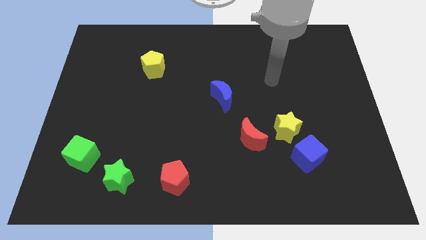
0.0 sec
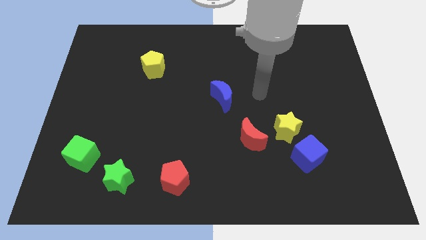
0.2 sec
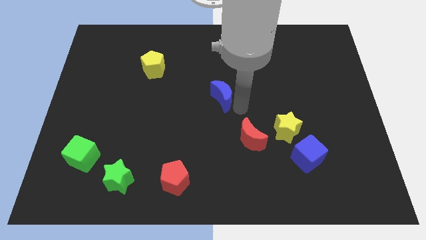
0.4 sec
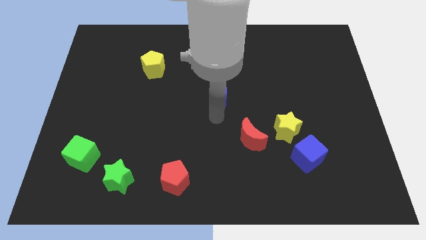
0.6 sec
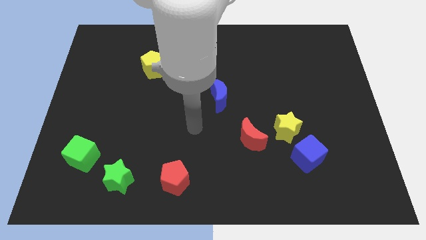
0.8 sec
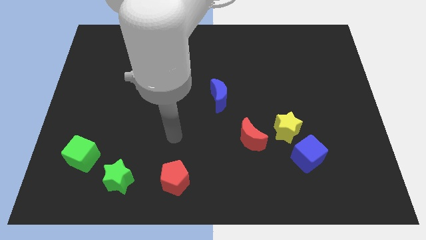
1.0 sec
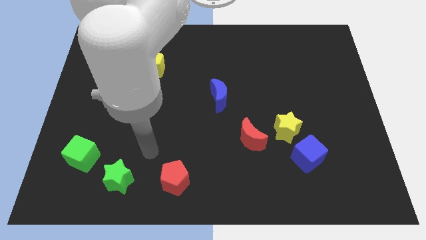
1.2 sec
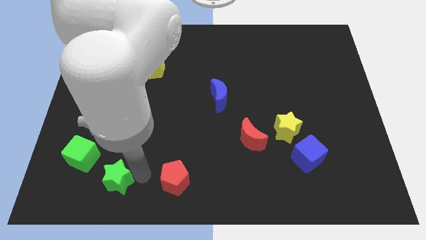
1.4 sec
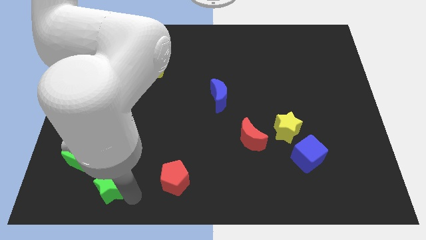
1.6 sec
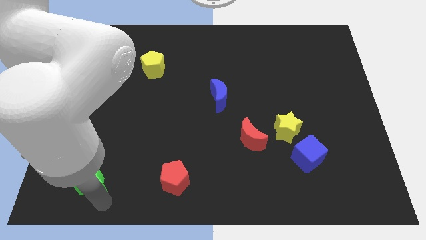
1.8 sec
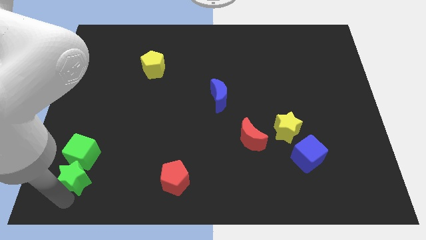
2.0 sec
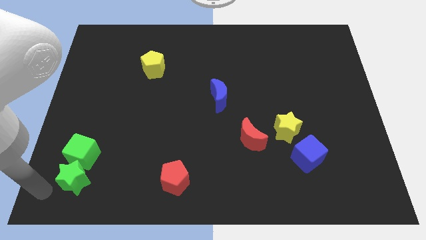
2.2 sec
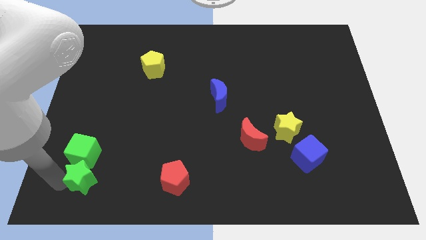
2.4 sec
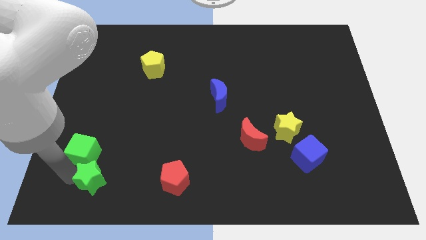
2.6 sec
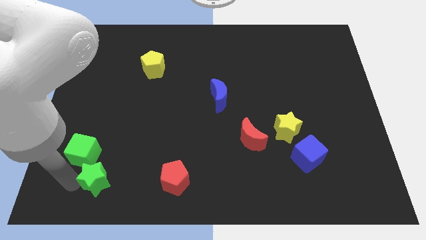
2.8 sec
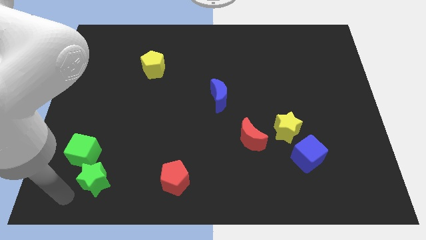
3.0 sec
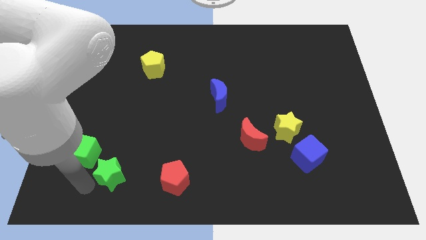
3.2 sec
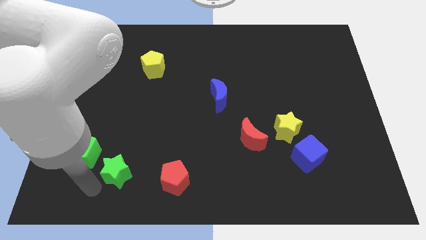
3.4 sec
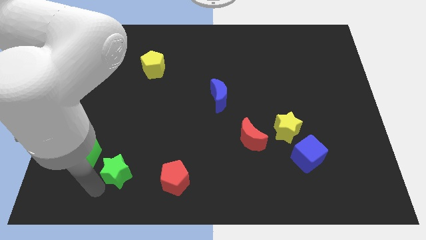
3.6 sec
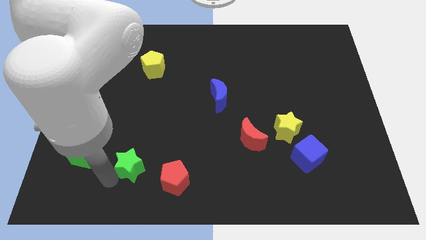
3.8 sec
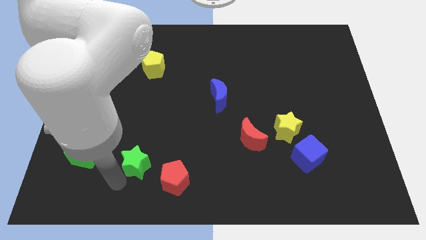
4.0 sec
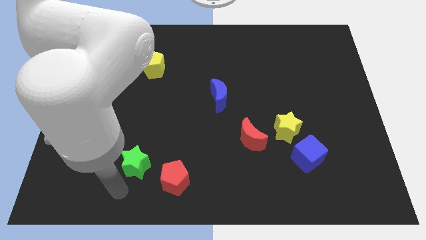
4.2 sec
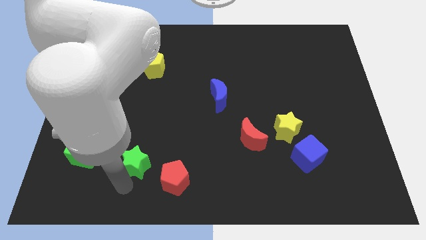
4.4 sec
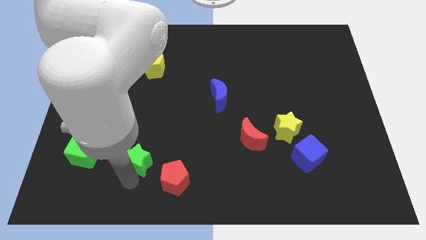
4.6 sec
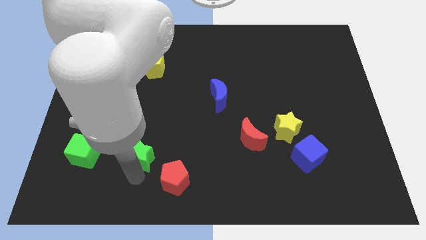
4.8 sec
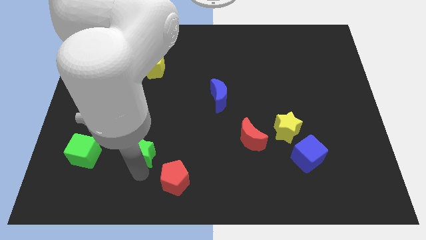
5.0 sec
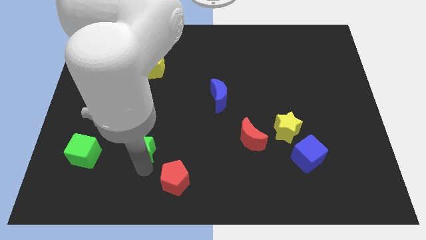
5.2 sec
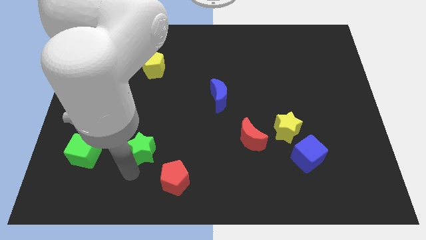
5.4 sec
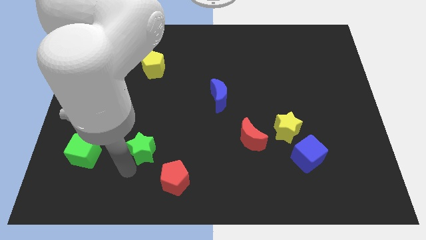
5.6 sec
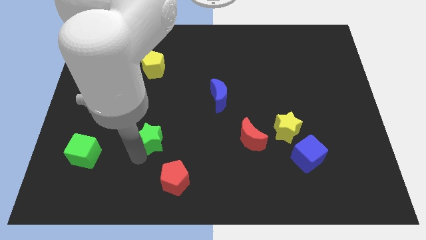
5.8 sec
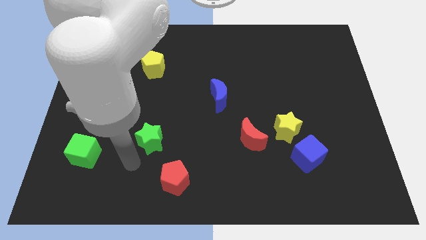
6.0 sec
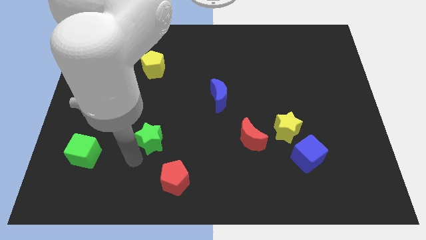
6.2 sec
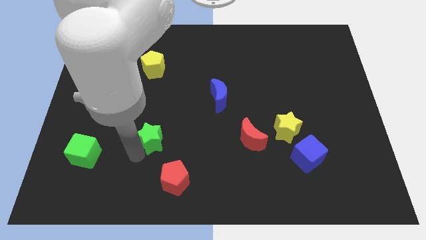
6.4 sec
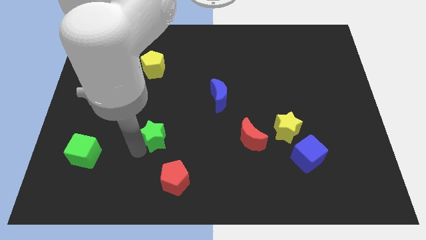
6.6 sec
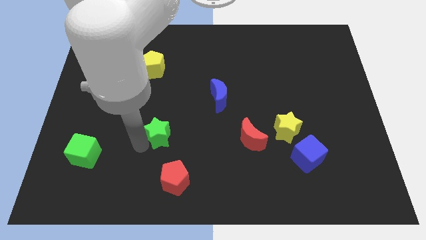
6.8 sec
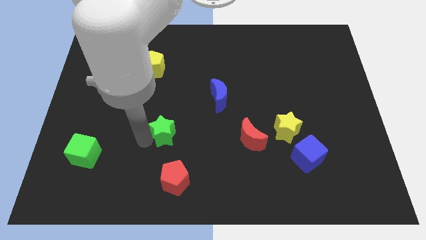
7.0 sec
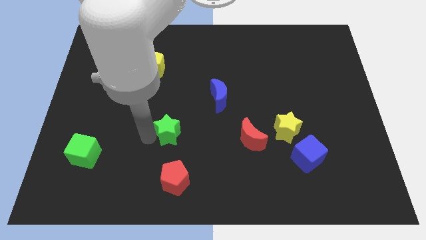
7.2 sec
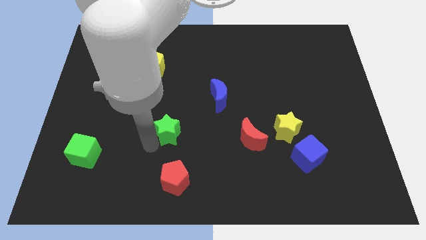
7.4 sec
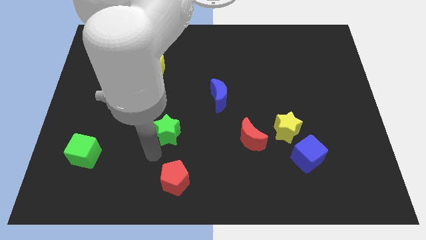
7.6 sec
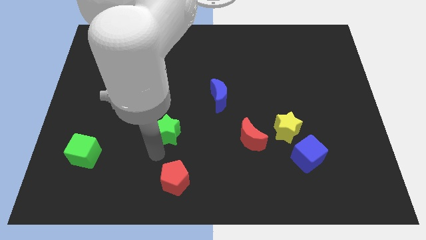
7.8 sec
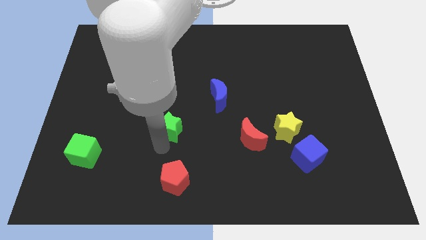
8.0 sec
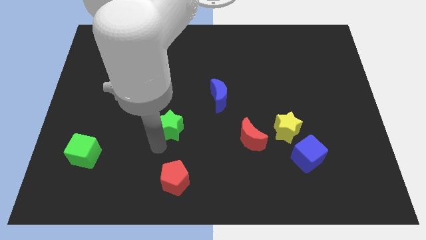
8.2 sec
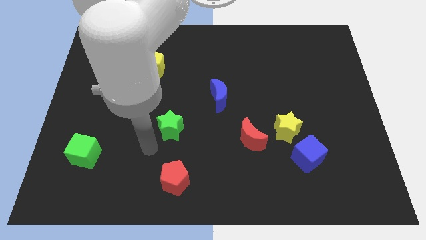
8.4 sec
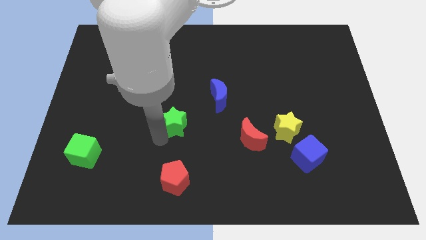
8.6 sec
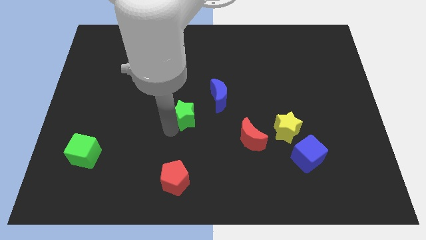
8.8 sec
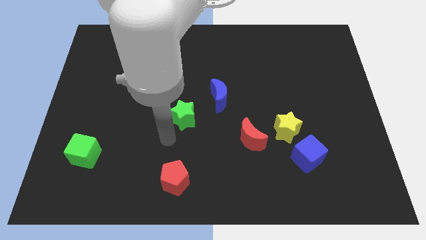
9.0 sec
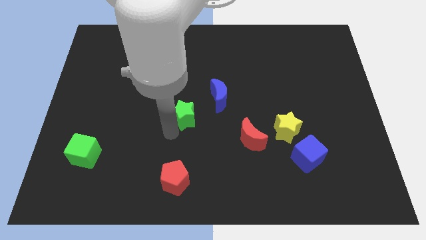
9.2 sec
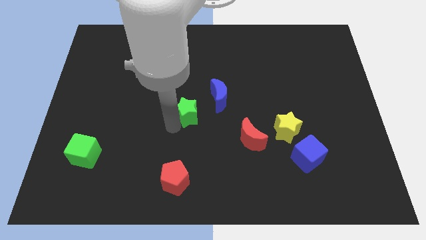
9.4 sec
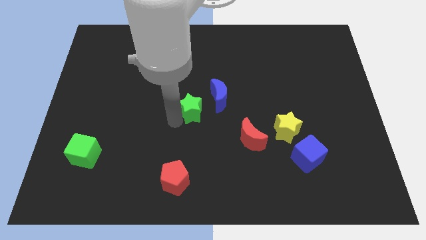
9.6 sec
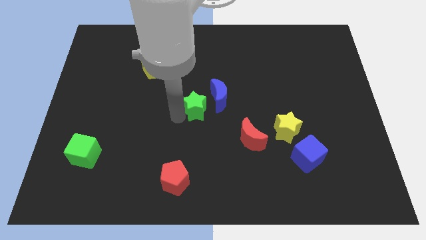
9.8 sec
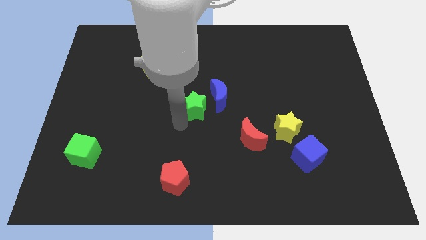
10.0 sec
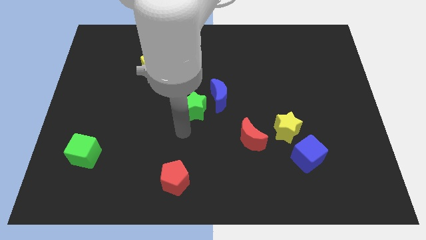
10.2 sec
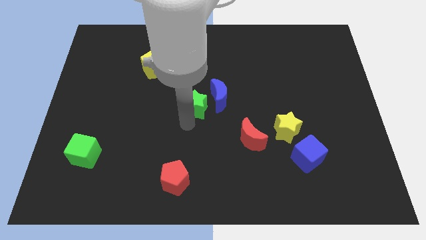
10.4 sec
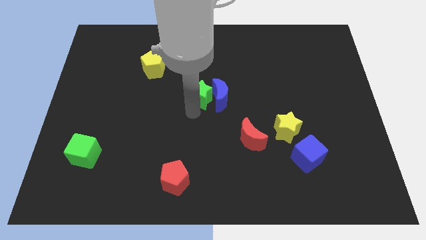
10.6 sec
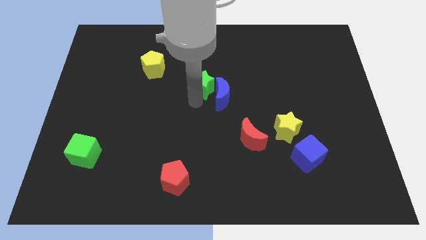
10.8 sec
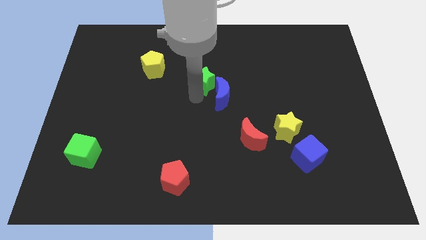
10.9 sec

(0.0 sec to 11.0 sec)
slide the green star to the top side of the blue moon
